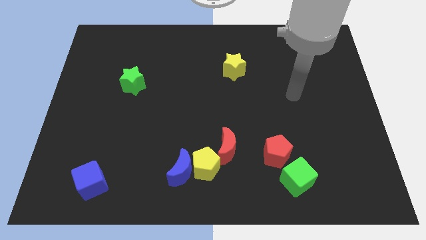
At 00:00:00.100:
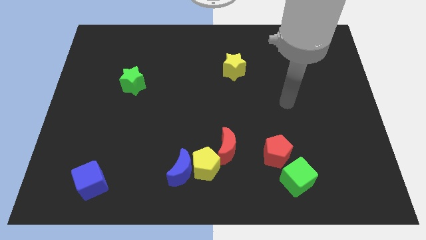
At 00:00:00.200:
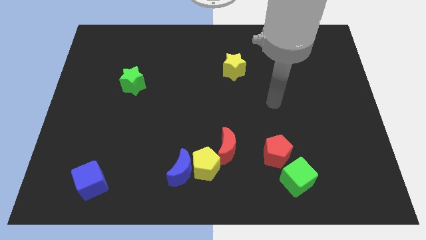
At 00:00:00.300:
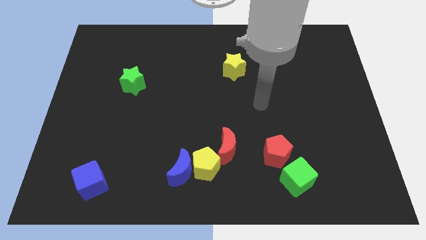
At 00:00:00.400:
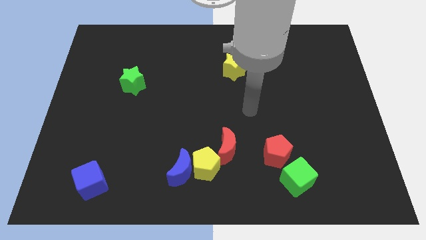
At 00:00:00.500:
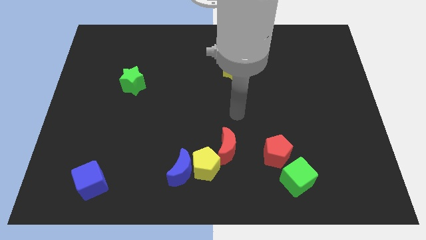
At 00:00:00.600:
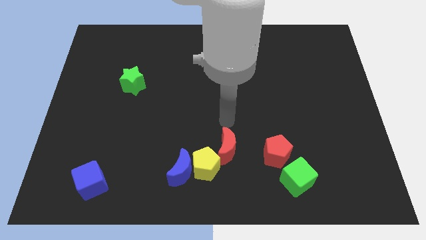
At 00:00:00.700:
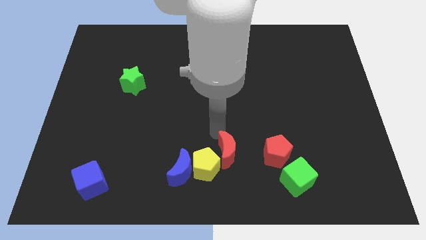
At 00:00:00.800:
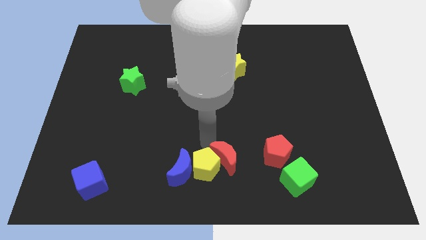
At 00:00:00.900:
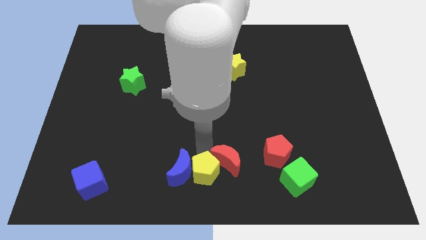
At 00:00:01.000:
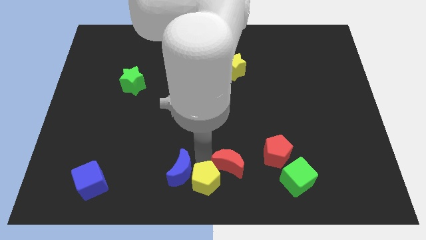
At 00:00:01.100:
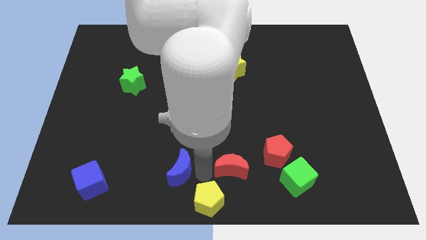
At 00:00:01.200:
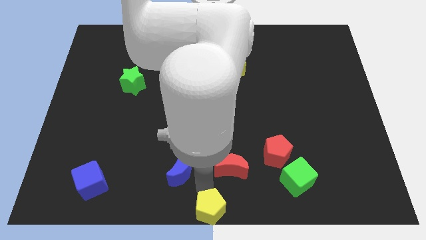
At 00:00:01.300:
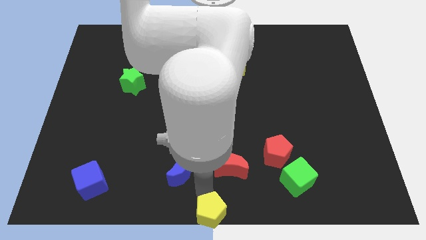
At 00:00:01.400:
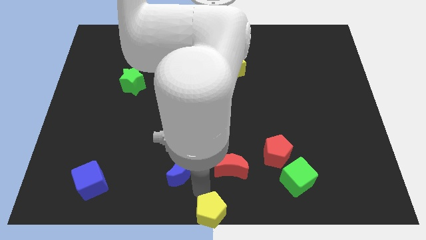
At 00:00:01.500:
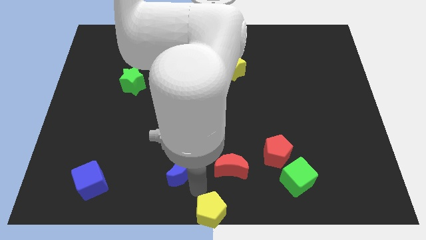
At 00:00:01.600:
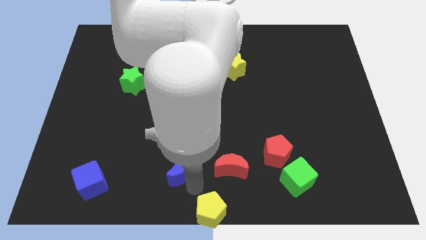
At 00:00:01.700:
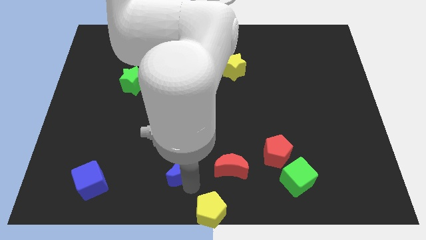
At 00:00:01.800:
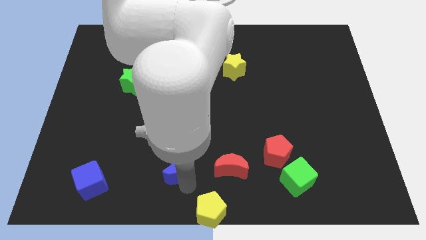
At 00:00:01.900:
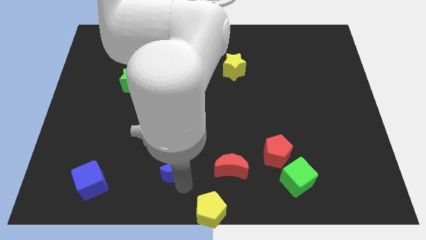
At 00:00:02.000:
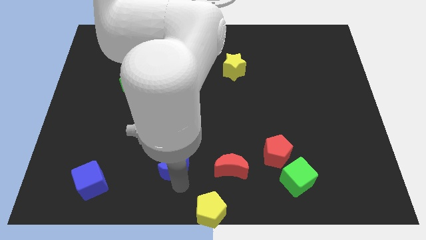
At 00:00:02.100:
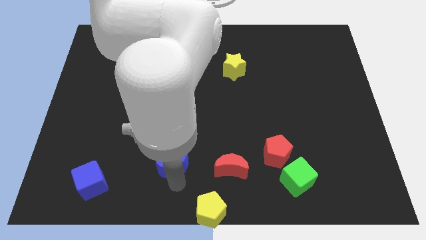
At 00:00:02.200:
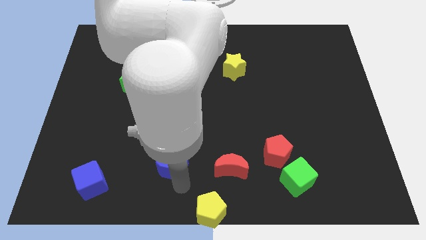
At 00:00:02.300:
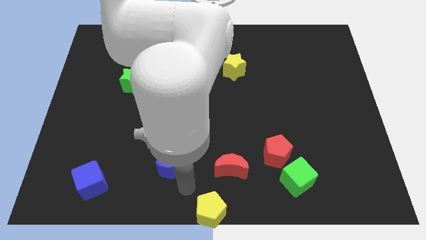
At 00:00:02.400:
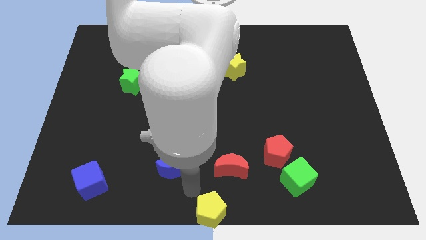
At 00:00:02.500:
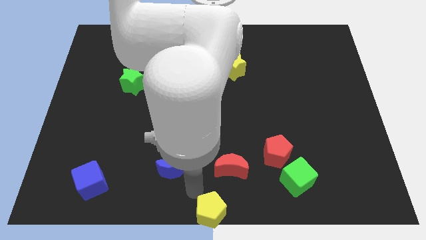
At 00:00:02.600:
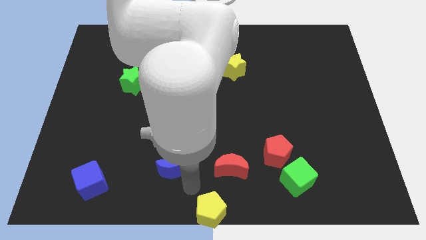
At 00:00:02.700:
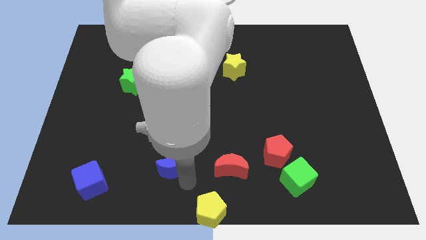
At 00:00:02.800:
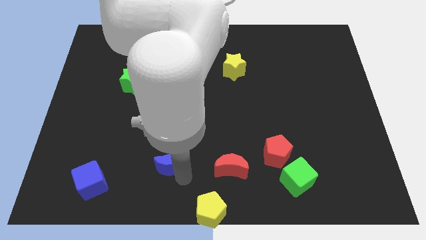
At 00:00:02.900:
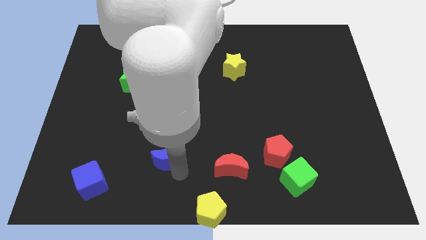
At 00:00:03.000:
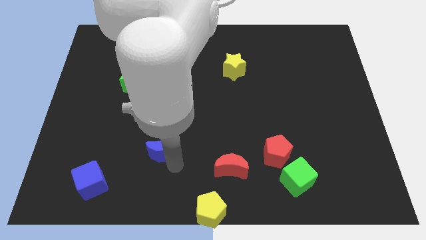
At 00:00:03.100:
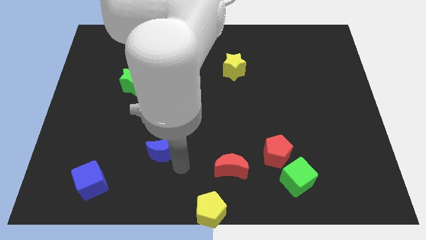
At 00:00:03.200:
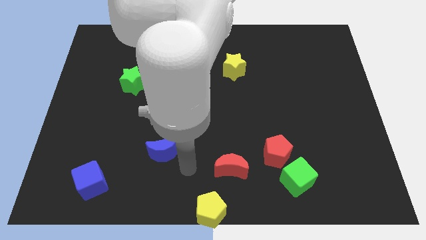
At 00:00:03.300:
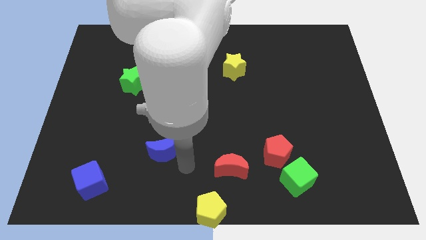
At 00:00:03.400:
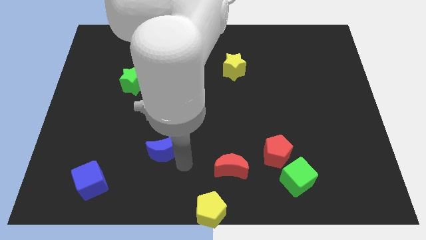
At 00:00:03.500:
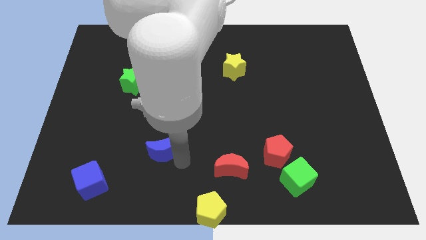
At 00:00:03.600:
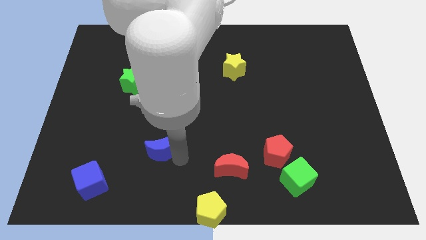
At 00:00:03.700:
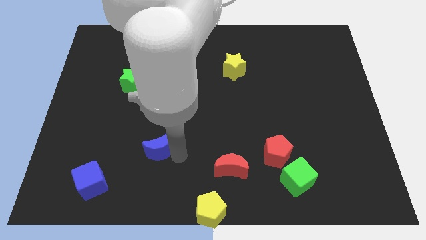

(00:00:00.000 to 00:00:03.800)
slightly slide the blue moon up and left

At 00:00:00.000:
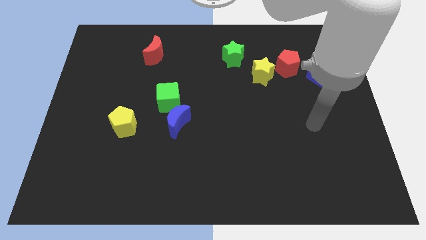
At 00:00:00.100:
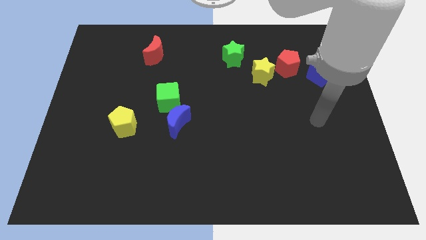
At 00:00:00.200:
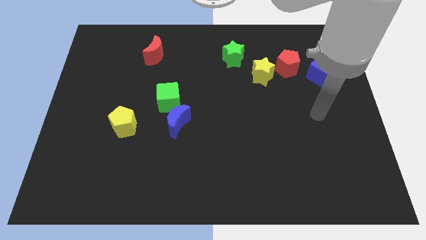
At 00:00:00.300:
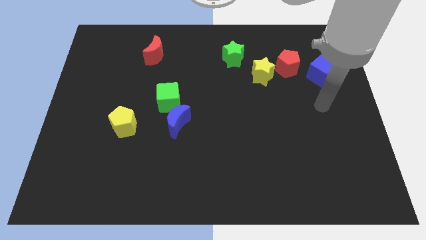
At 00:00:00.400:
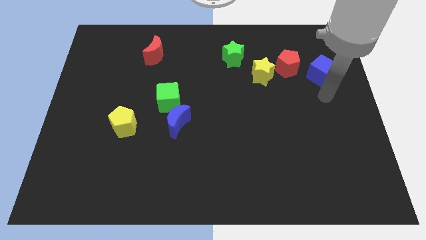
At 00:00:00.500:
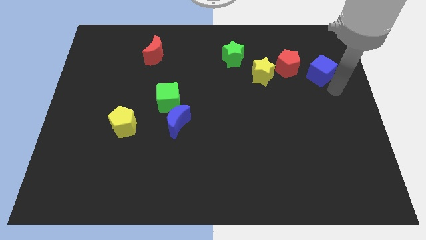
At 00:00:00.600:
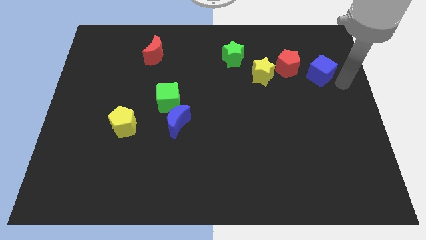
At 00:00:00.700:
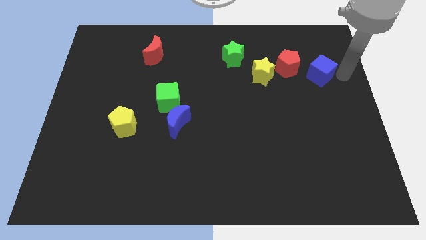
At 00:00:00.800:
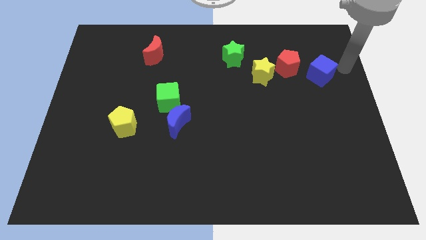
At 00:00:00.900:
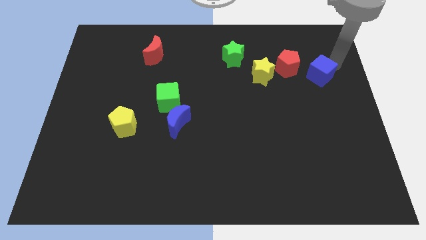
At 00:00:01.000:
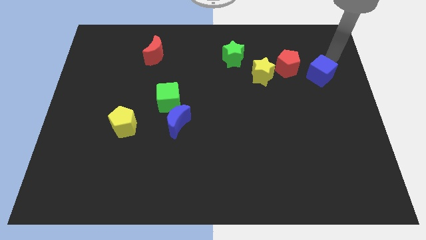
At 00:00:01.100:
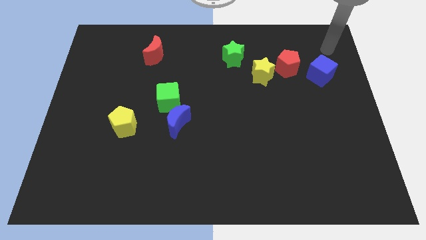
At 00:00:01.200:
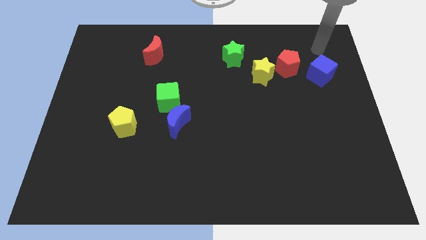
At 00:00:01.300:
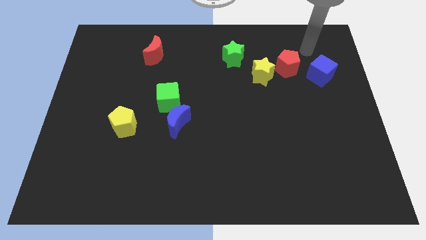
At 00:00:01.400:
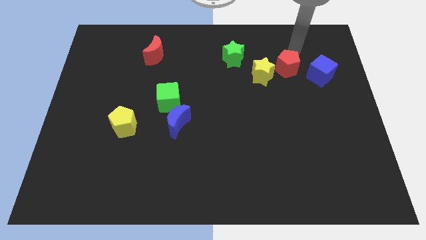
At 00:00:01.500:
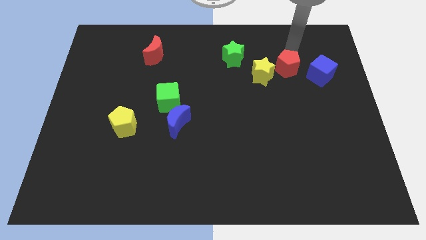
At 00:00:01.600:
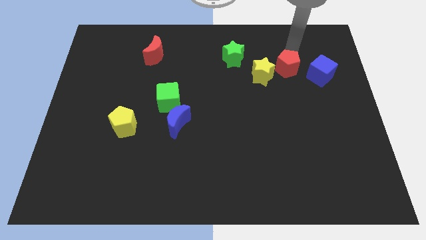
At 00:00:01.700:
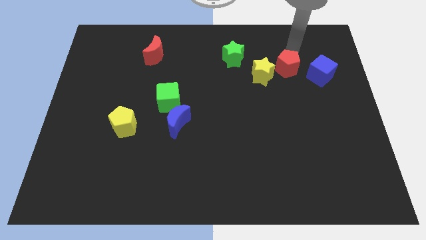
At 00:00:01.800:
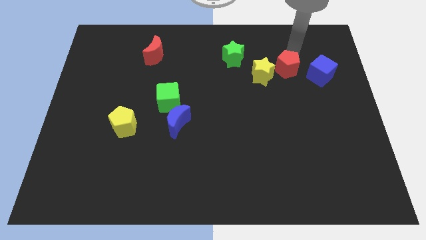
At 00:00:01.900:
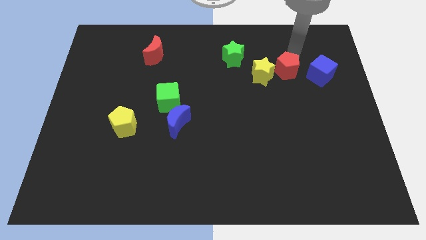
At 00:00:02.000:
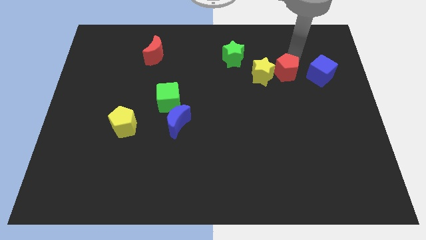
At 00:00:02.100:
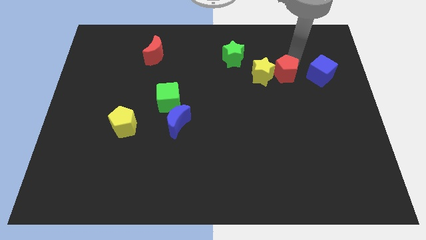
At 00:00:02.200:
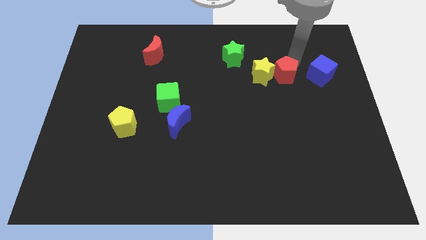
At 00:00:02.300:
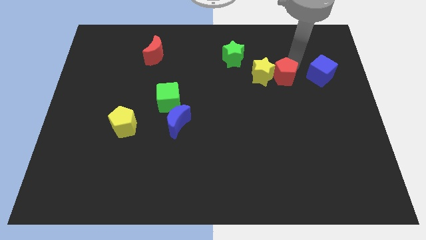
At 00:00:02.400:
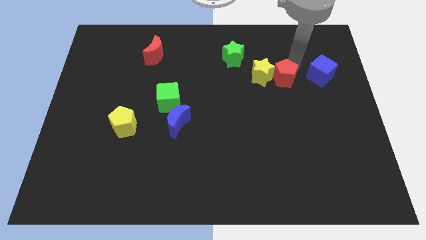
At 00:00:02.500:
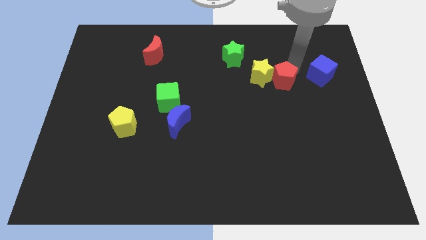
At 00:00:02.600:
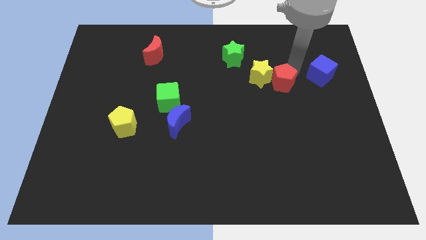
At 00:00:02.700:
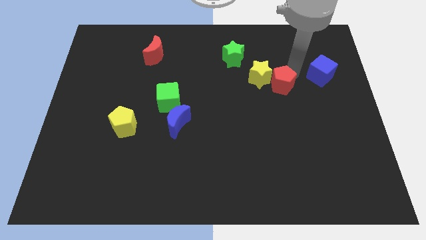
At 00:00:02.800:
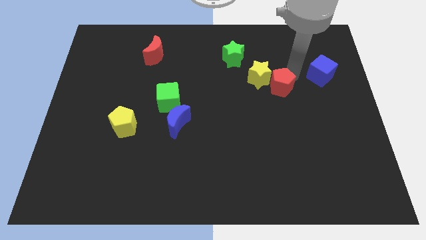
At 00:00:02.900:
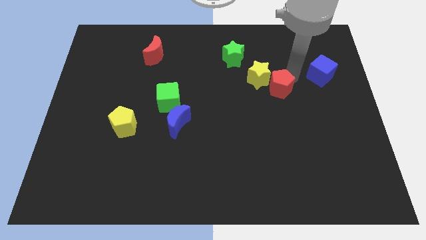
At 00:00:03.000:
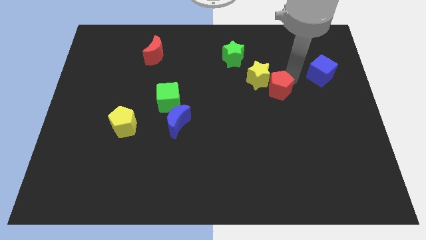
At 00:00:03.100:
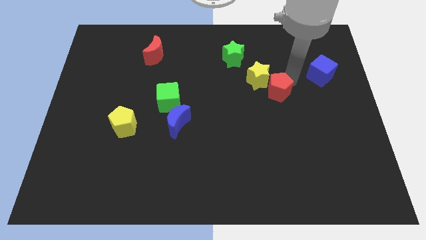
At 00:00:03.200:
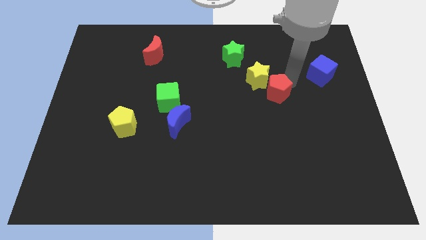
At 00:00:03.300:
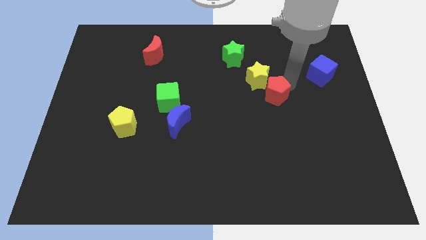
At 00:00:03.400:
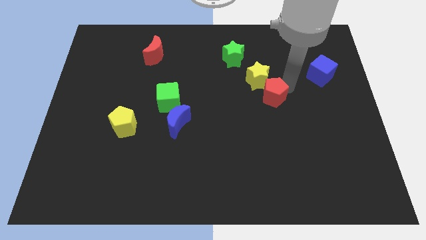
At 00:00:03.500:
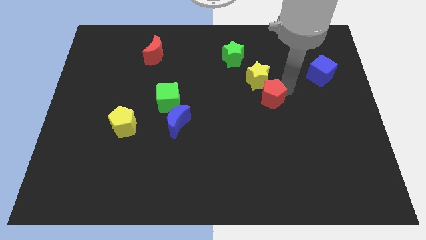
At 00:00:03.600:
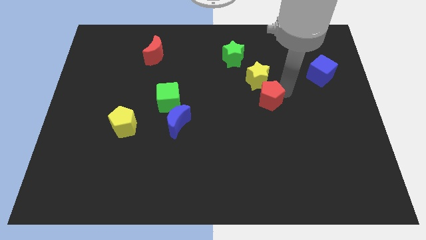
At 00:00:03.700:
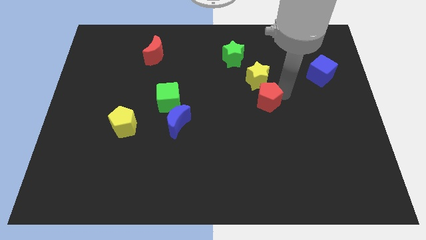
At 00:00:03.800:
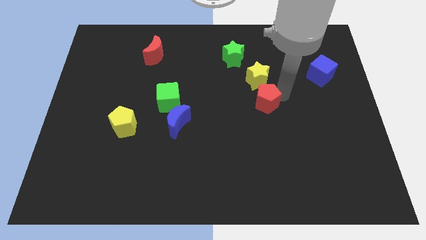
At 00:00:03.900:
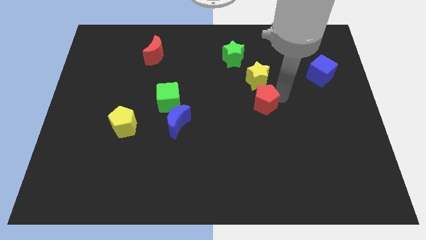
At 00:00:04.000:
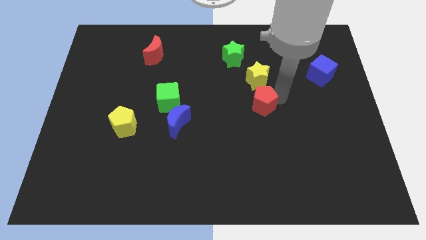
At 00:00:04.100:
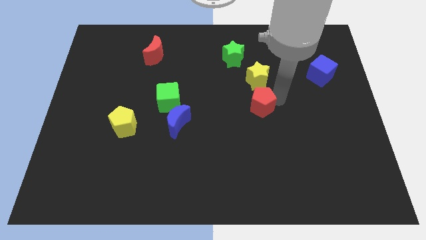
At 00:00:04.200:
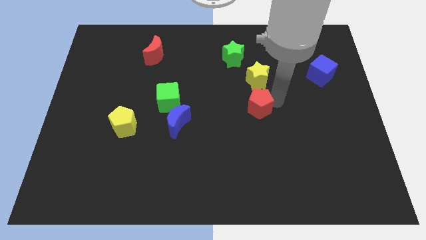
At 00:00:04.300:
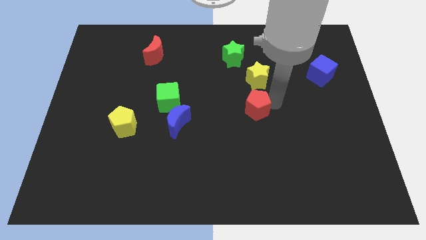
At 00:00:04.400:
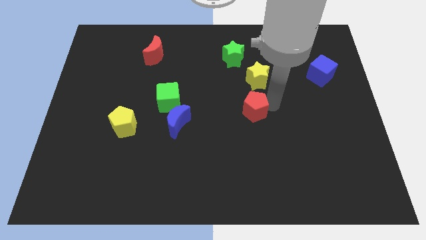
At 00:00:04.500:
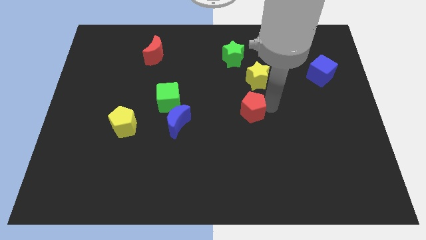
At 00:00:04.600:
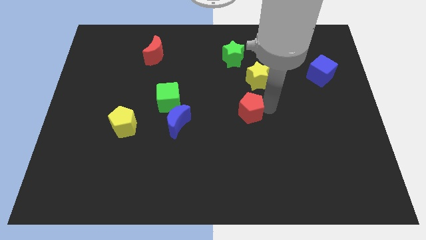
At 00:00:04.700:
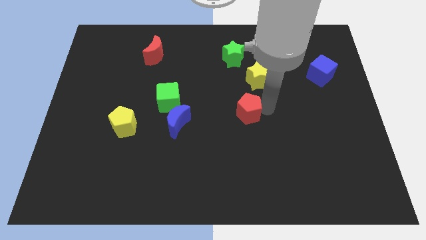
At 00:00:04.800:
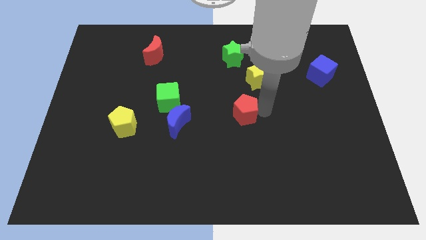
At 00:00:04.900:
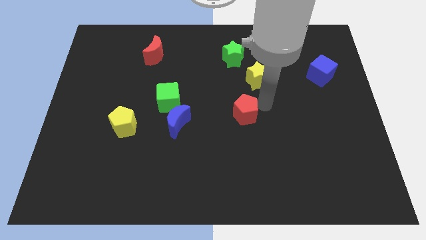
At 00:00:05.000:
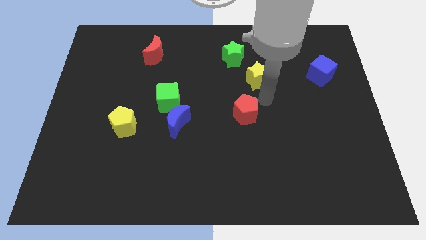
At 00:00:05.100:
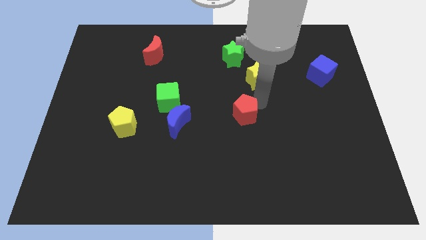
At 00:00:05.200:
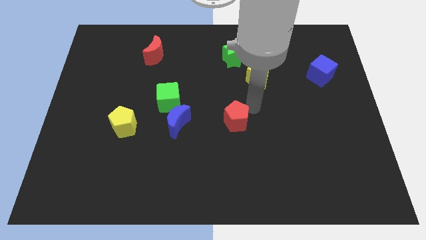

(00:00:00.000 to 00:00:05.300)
slide the red pentagon downwards and left
